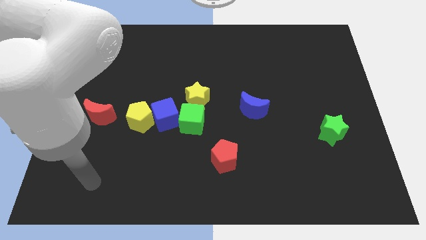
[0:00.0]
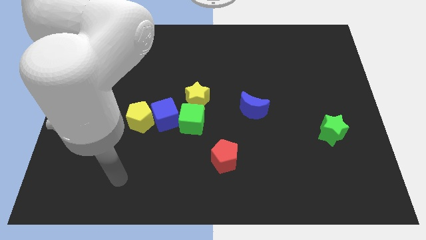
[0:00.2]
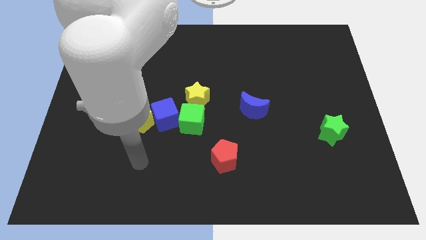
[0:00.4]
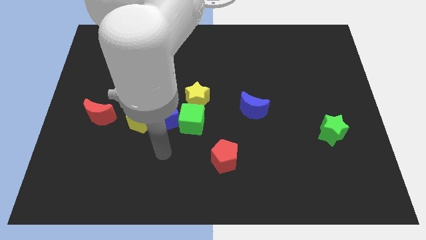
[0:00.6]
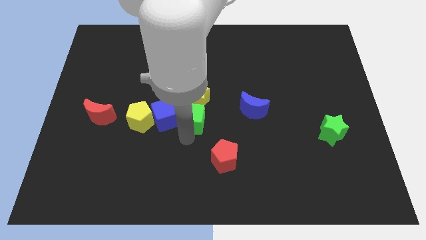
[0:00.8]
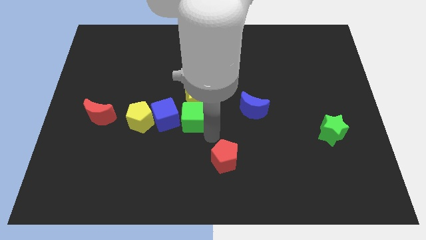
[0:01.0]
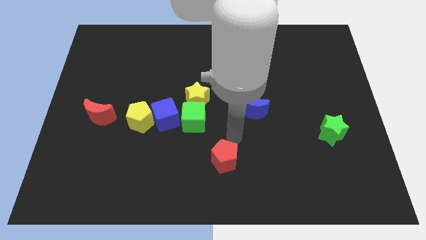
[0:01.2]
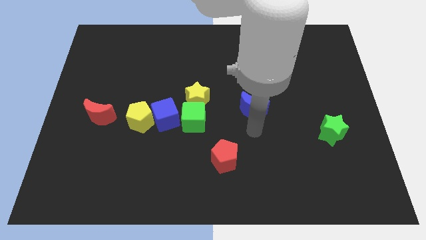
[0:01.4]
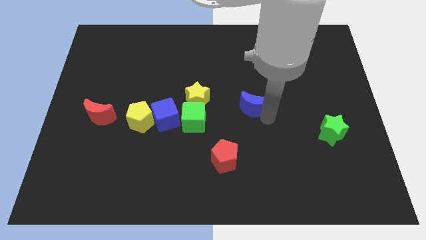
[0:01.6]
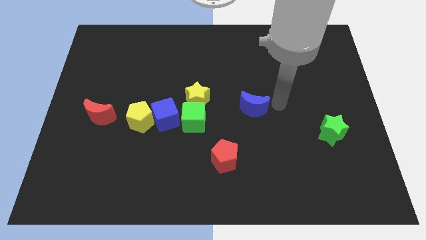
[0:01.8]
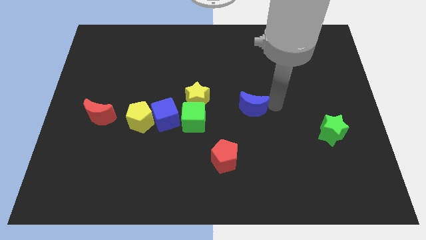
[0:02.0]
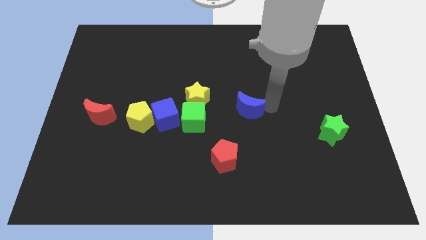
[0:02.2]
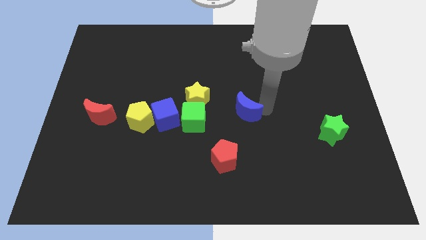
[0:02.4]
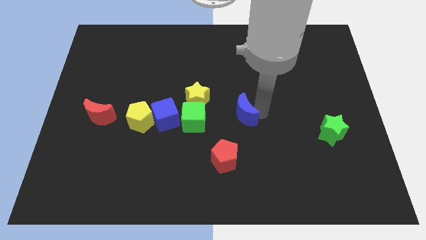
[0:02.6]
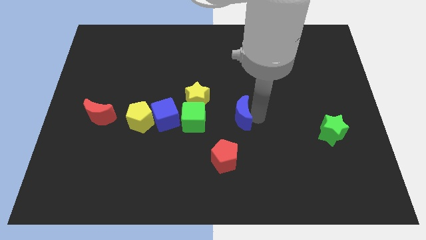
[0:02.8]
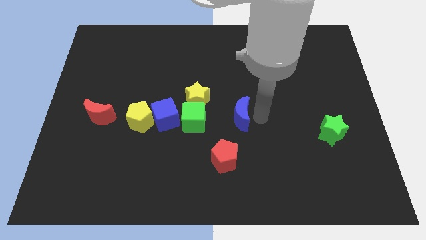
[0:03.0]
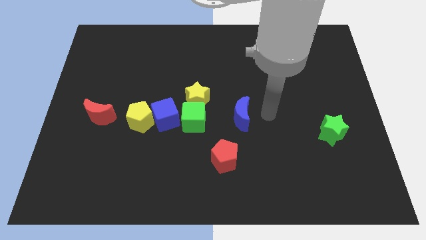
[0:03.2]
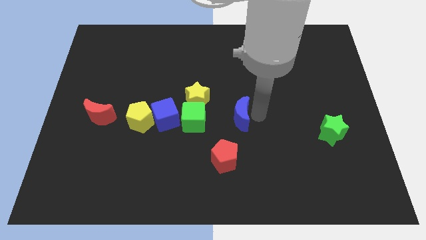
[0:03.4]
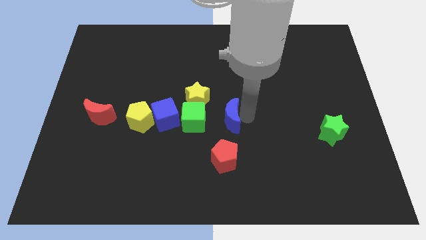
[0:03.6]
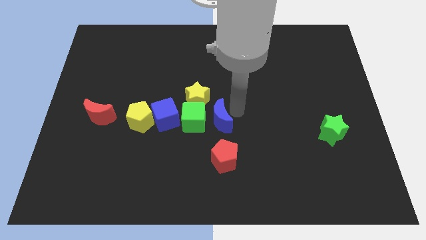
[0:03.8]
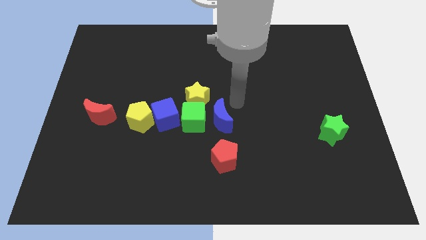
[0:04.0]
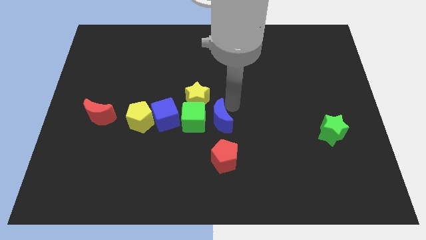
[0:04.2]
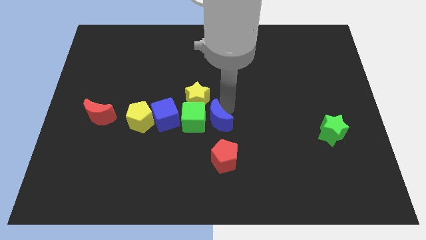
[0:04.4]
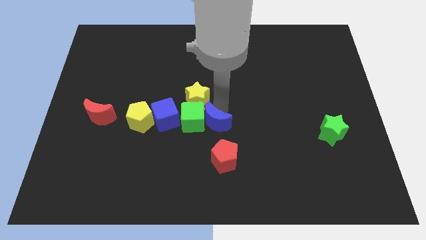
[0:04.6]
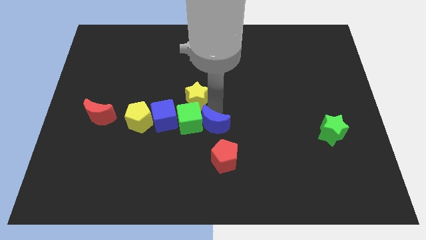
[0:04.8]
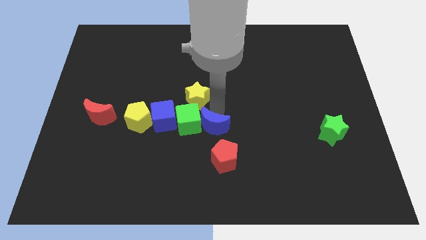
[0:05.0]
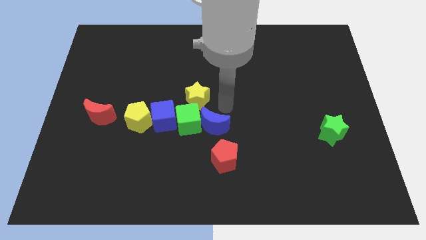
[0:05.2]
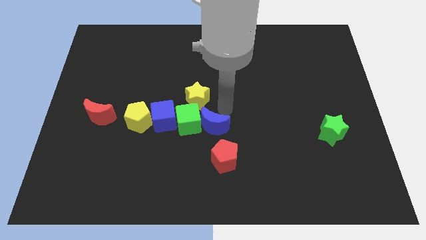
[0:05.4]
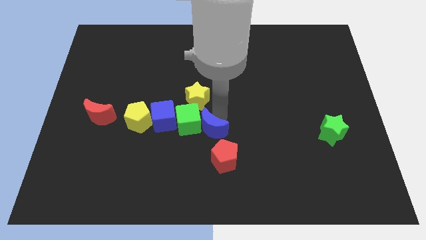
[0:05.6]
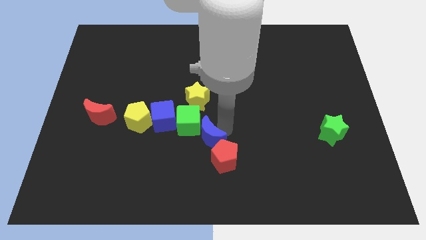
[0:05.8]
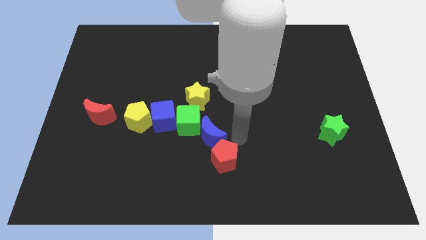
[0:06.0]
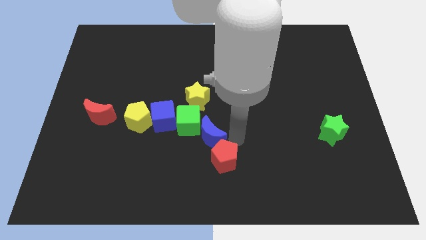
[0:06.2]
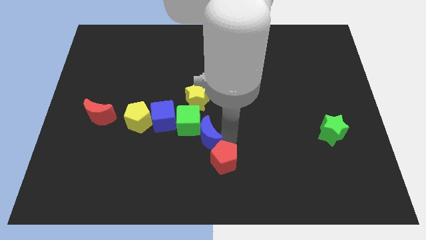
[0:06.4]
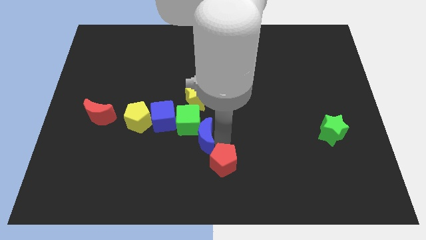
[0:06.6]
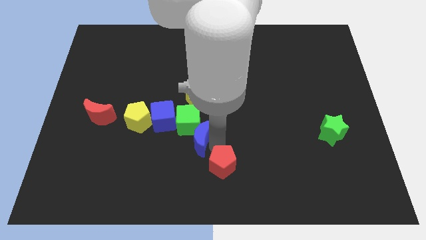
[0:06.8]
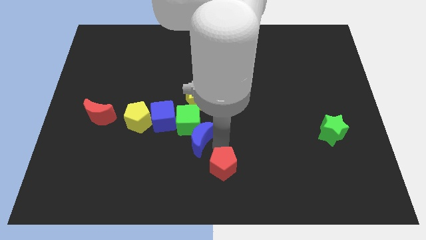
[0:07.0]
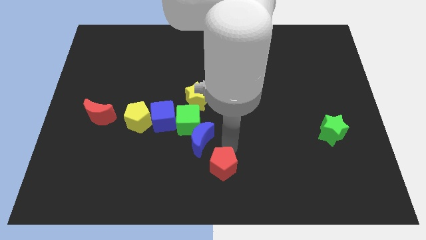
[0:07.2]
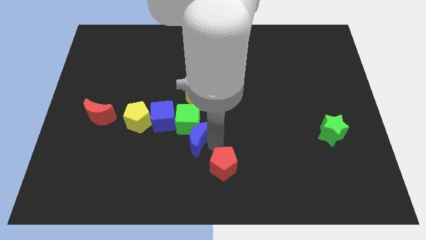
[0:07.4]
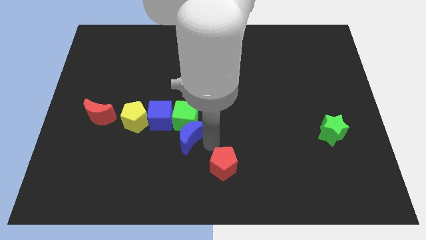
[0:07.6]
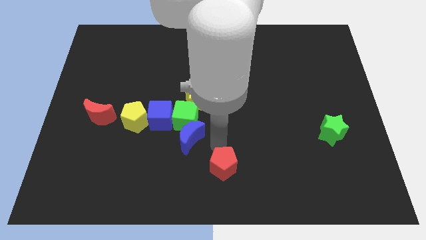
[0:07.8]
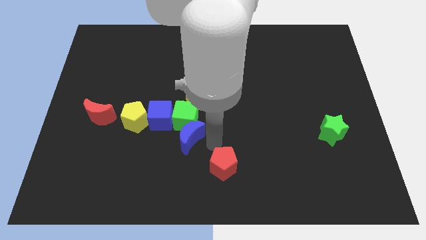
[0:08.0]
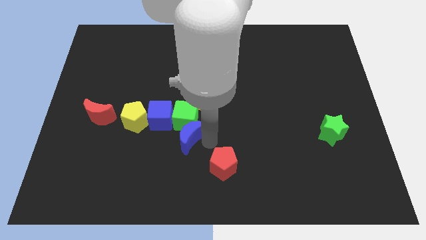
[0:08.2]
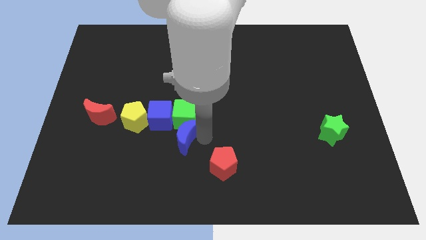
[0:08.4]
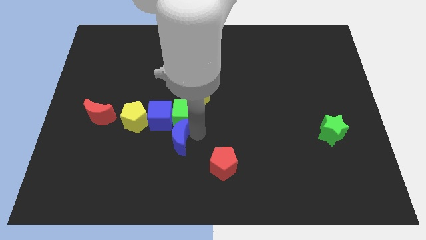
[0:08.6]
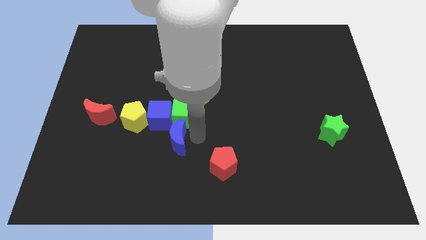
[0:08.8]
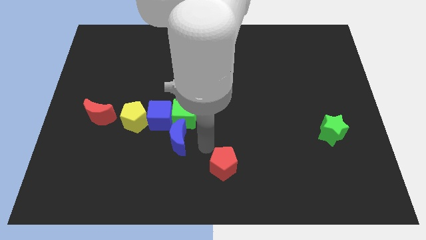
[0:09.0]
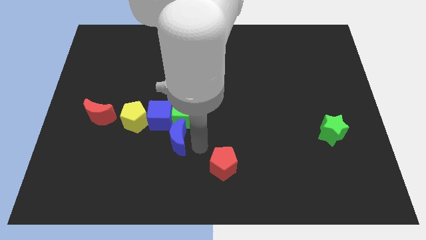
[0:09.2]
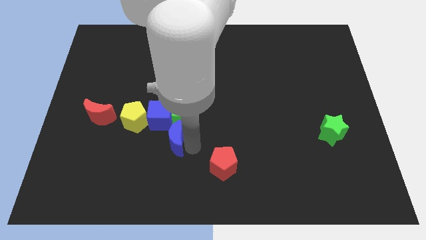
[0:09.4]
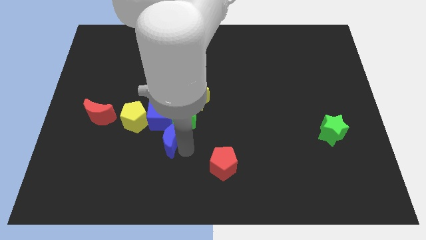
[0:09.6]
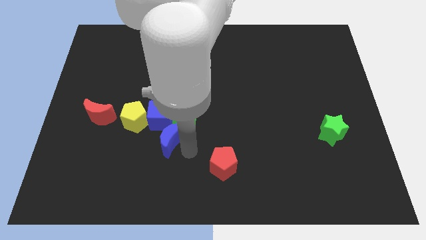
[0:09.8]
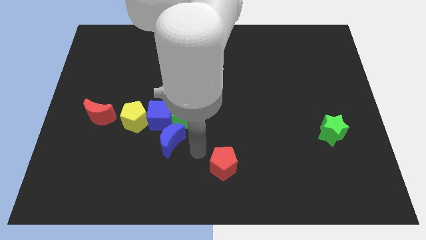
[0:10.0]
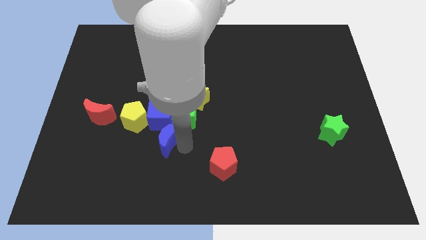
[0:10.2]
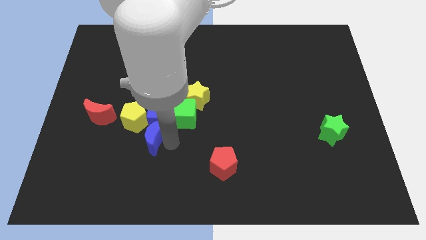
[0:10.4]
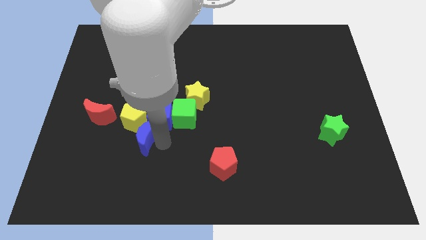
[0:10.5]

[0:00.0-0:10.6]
push the blue moon to the yellow pentagon

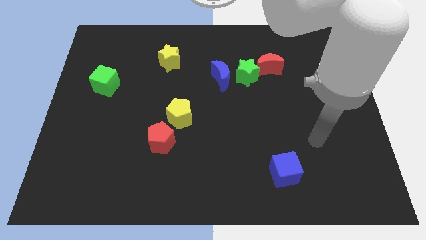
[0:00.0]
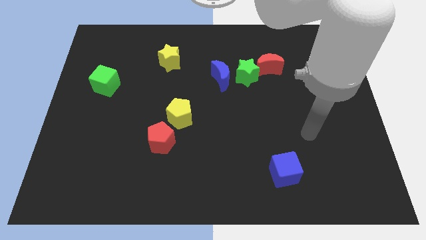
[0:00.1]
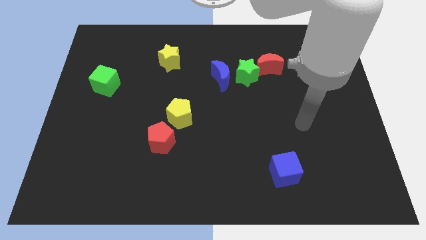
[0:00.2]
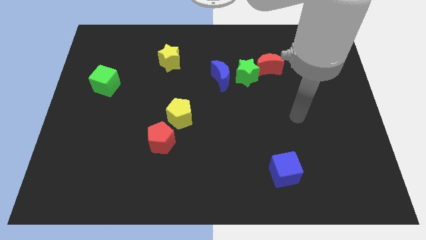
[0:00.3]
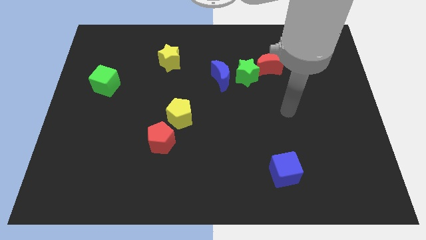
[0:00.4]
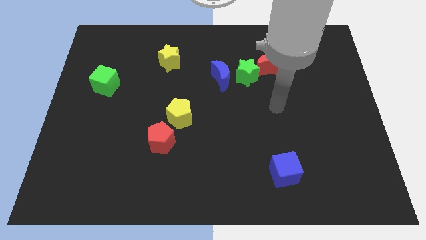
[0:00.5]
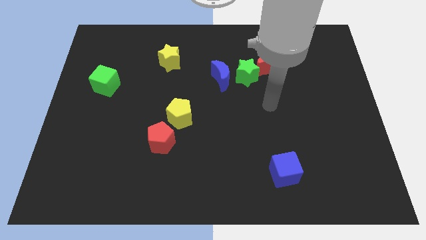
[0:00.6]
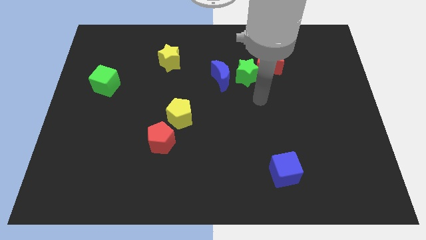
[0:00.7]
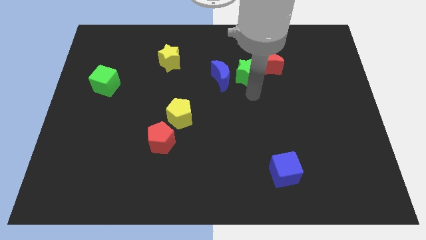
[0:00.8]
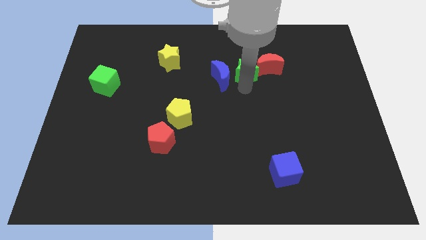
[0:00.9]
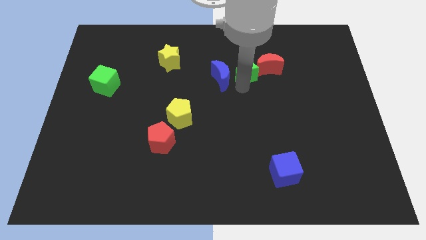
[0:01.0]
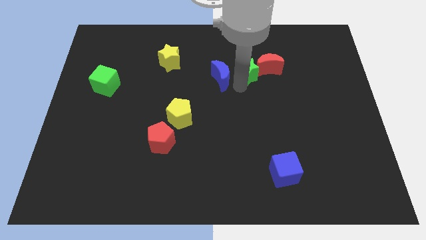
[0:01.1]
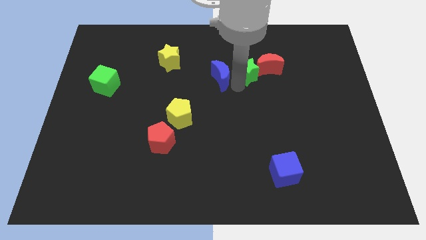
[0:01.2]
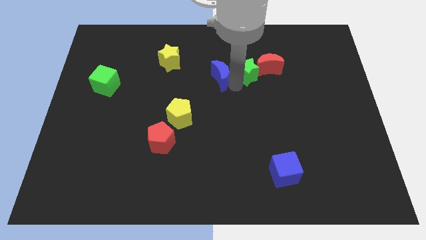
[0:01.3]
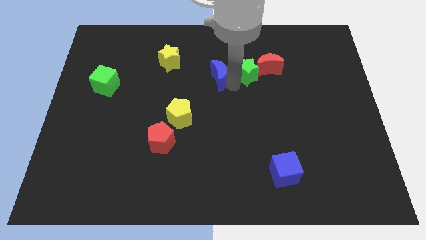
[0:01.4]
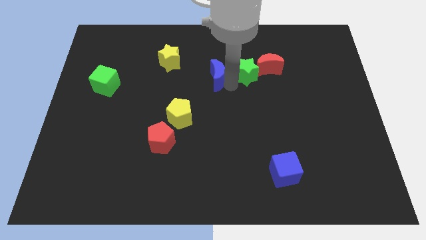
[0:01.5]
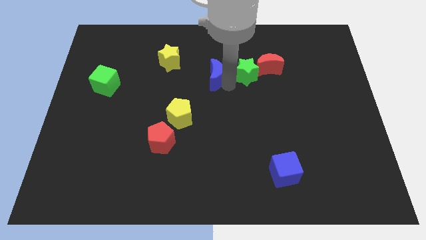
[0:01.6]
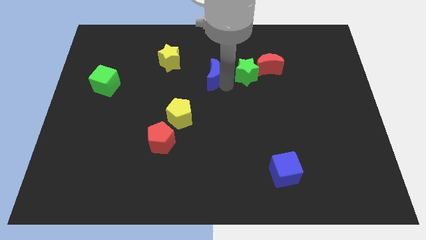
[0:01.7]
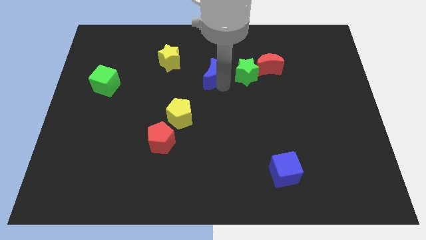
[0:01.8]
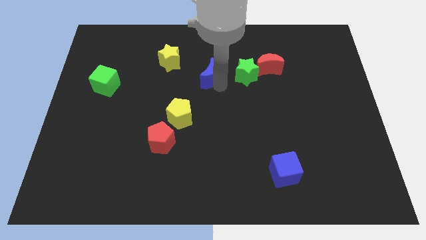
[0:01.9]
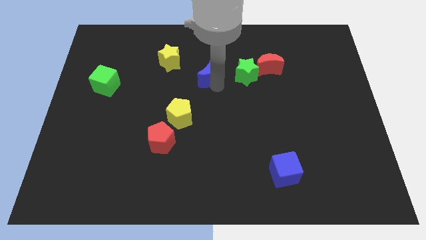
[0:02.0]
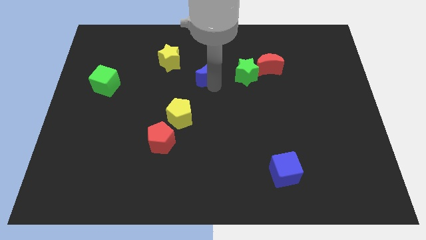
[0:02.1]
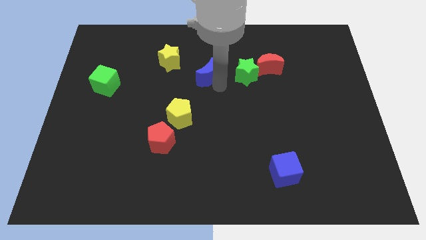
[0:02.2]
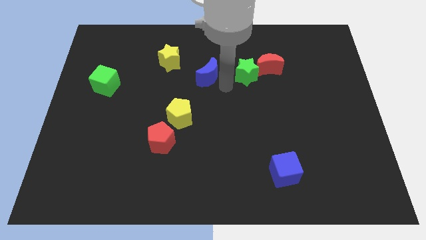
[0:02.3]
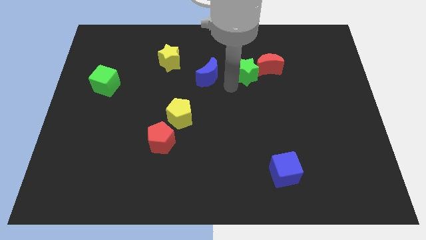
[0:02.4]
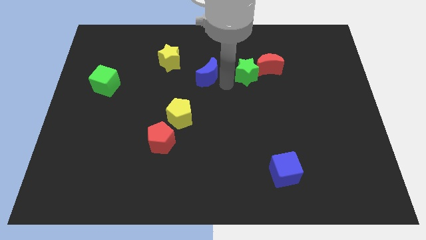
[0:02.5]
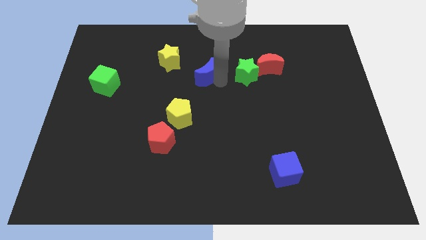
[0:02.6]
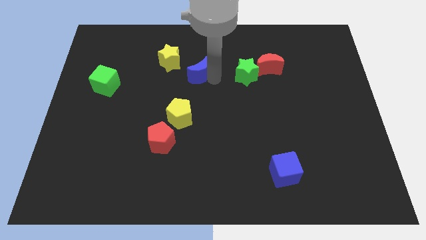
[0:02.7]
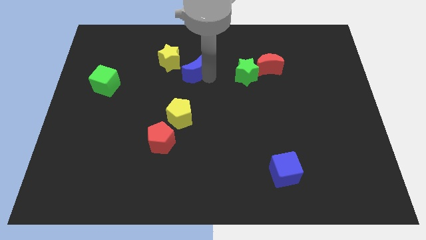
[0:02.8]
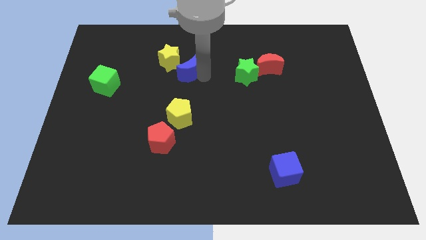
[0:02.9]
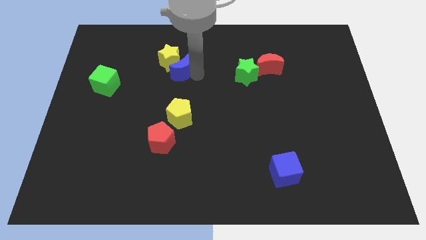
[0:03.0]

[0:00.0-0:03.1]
slide the blue moon next to the yellow star

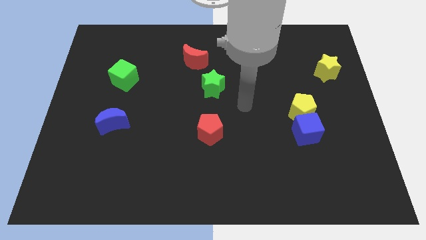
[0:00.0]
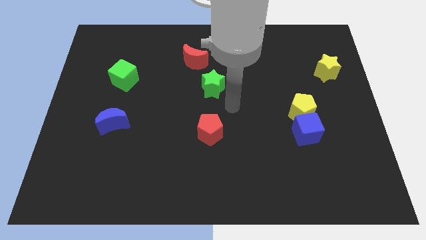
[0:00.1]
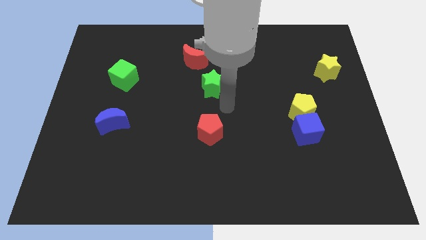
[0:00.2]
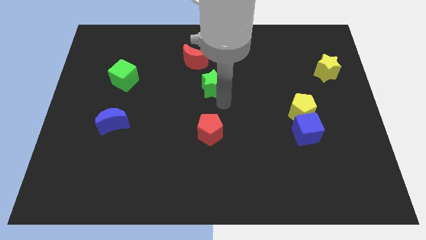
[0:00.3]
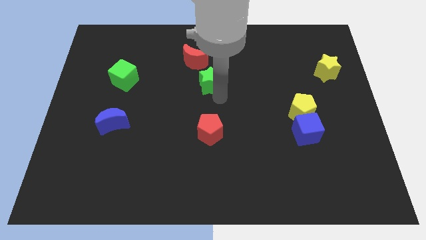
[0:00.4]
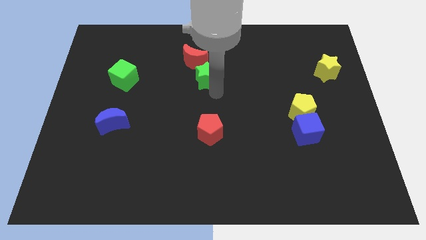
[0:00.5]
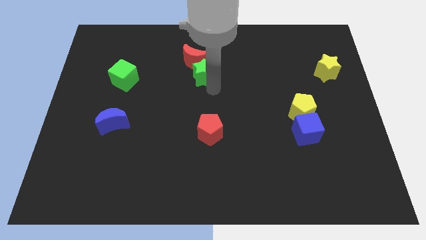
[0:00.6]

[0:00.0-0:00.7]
move the green star to the red moon
